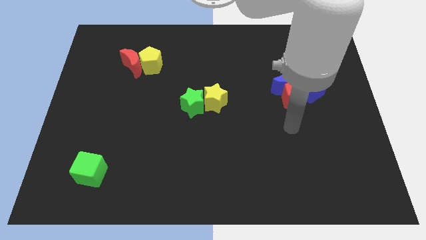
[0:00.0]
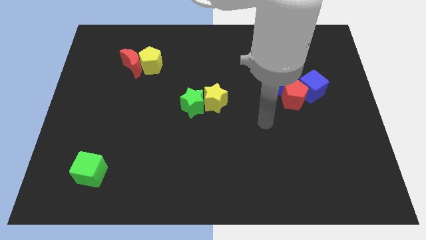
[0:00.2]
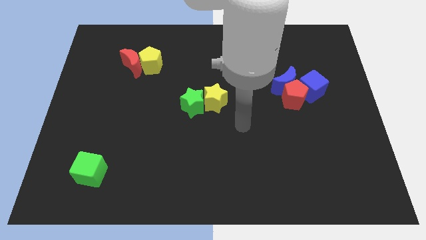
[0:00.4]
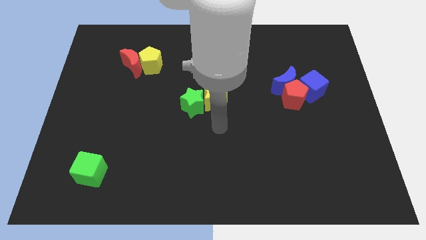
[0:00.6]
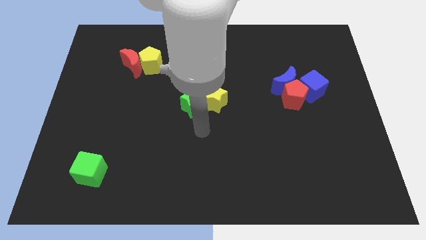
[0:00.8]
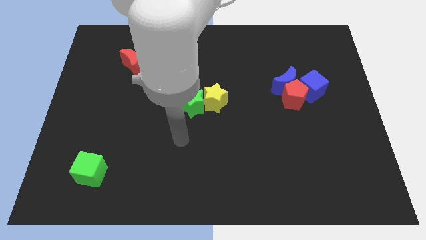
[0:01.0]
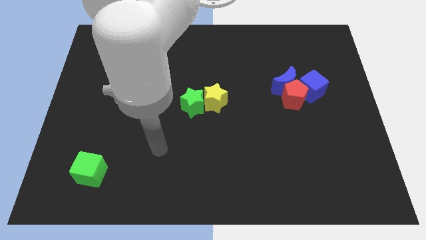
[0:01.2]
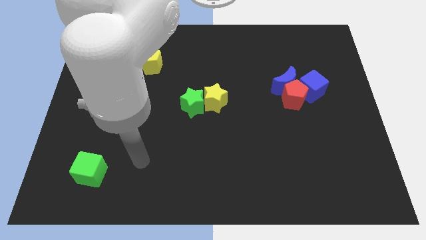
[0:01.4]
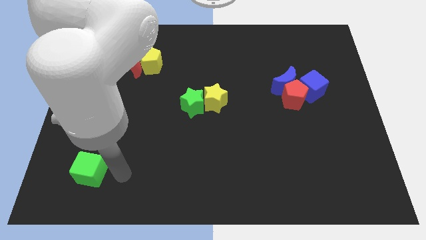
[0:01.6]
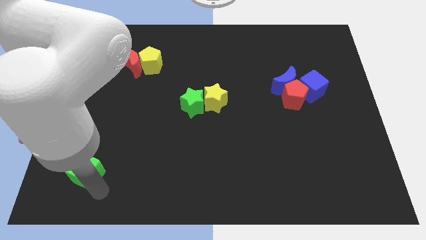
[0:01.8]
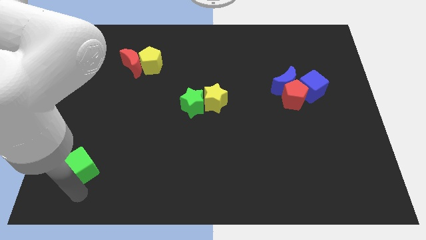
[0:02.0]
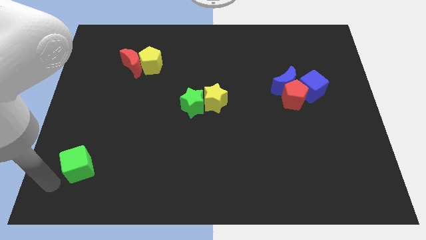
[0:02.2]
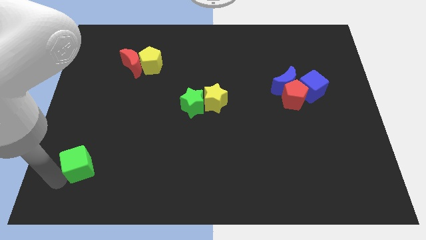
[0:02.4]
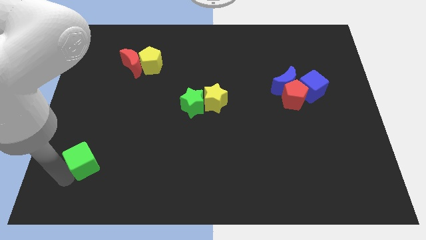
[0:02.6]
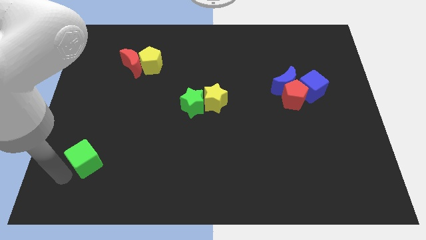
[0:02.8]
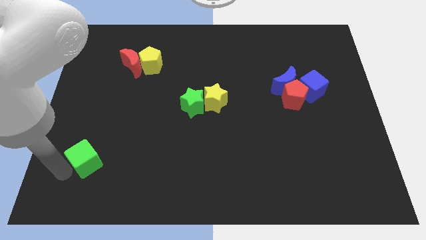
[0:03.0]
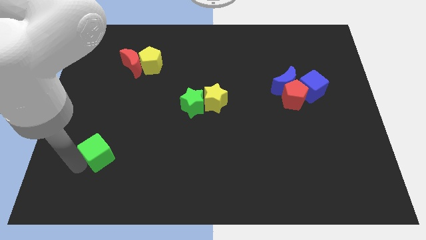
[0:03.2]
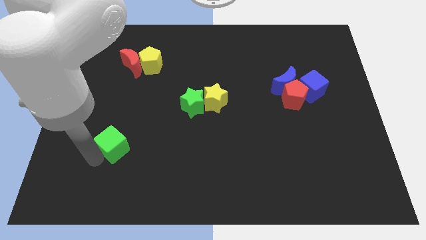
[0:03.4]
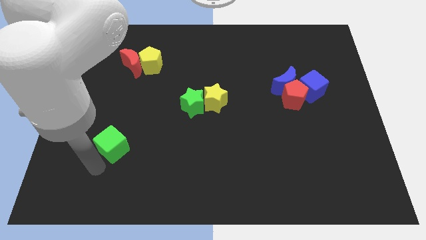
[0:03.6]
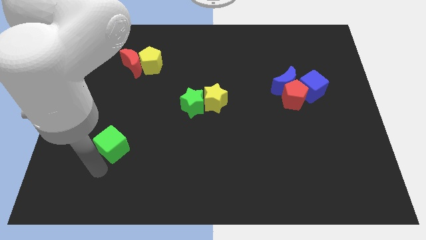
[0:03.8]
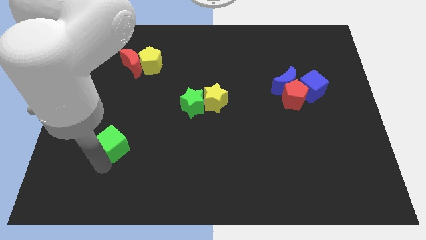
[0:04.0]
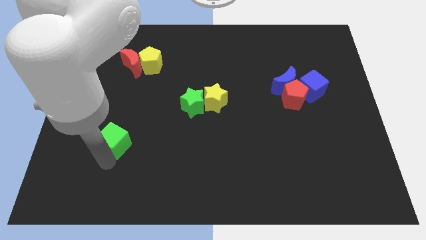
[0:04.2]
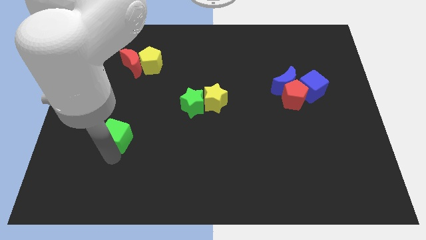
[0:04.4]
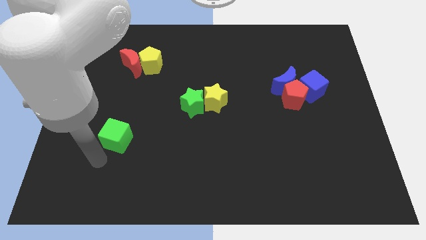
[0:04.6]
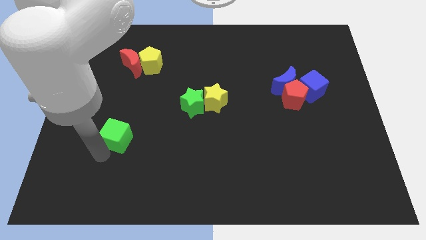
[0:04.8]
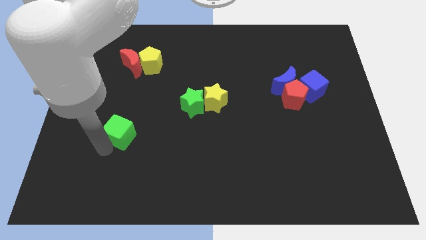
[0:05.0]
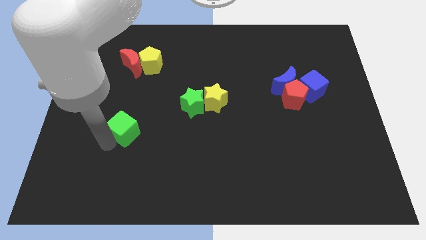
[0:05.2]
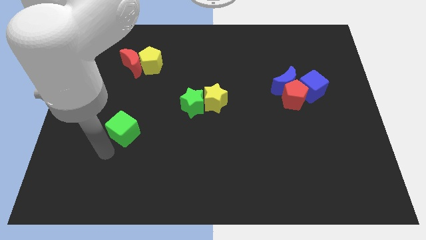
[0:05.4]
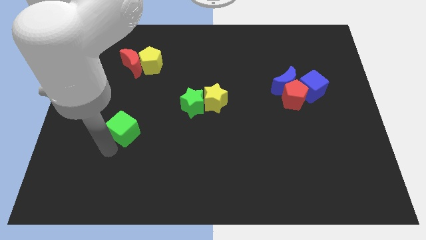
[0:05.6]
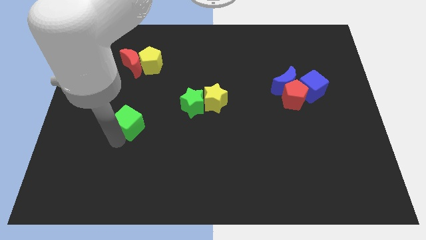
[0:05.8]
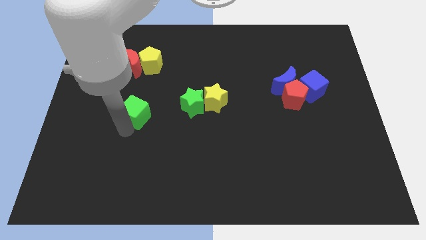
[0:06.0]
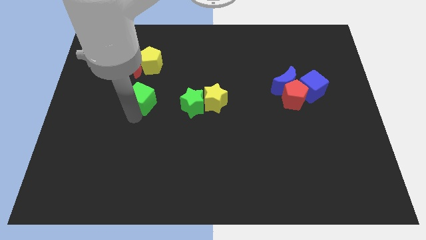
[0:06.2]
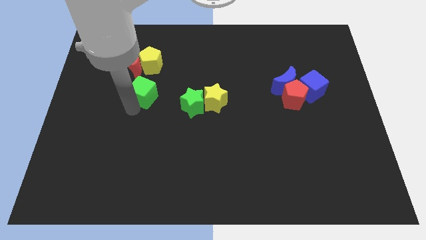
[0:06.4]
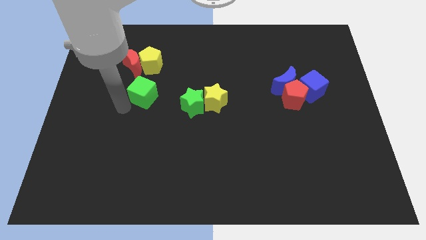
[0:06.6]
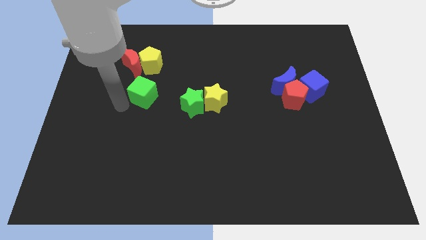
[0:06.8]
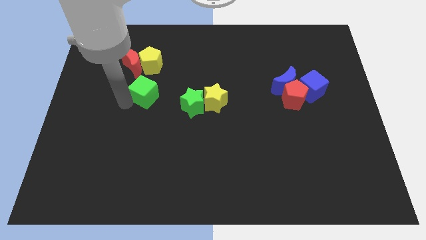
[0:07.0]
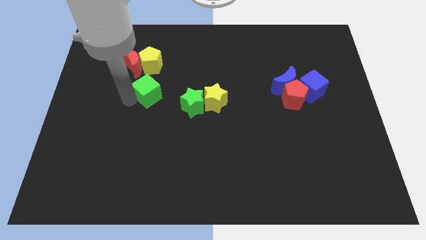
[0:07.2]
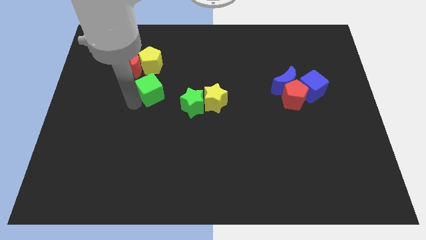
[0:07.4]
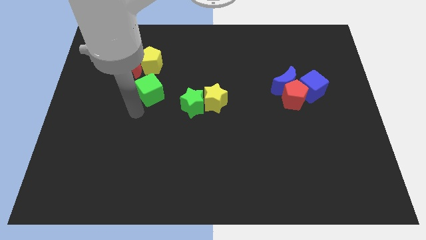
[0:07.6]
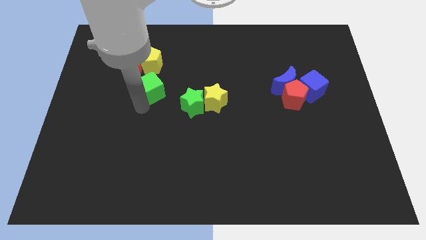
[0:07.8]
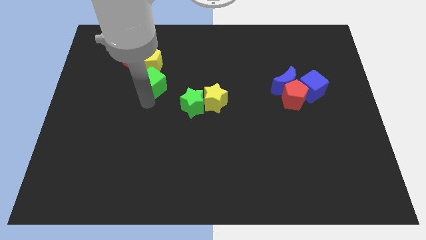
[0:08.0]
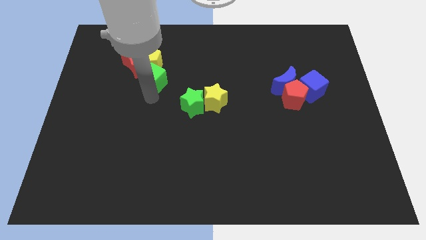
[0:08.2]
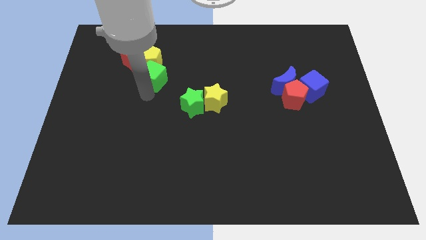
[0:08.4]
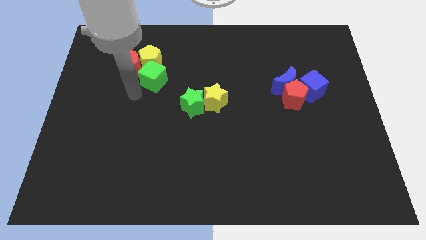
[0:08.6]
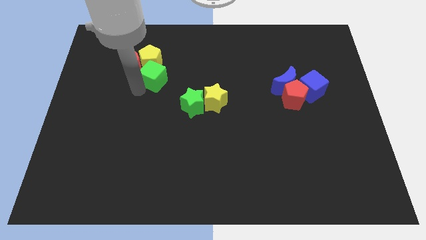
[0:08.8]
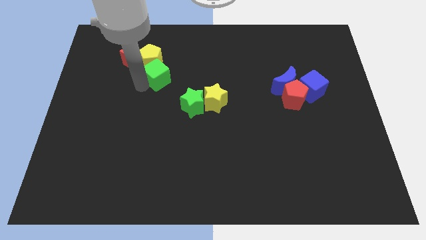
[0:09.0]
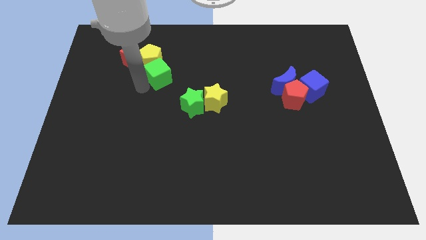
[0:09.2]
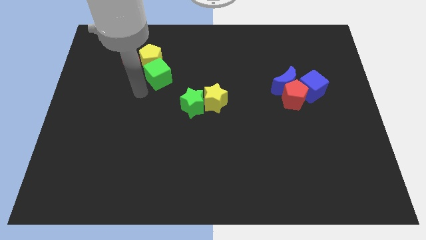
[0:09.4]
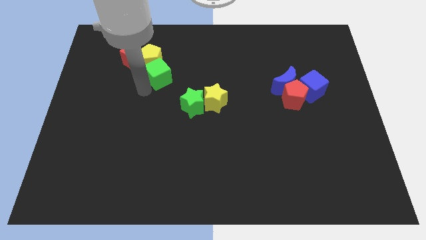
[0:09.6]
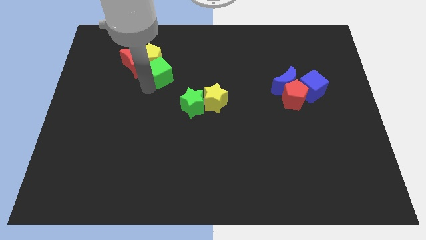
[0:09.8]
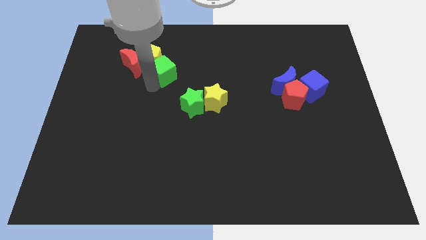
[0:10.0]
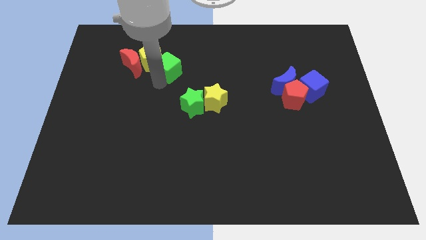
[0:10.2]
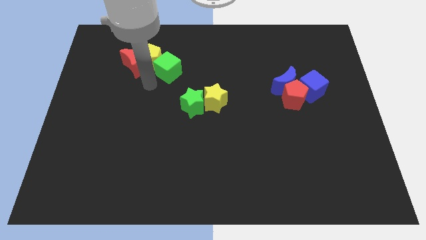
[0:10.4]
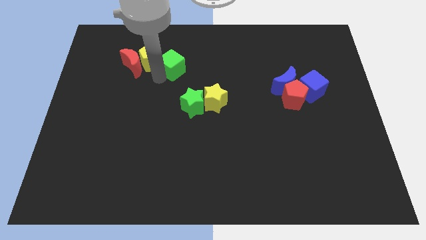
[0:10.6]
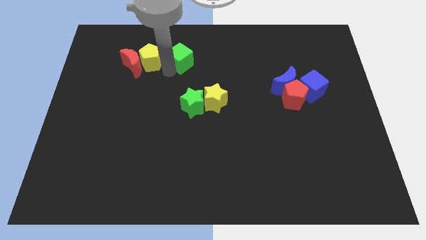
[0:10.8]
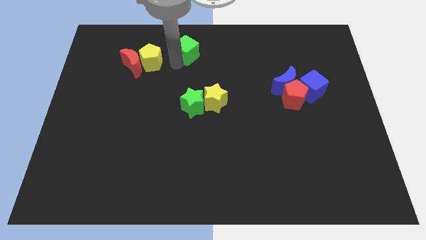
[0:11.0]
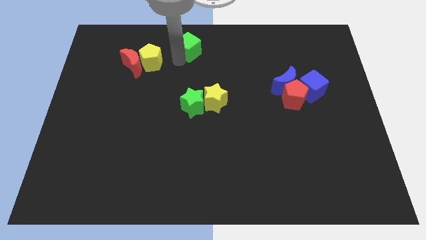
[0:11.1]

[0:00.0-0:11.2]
push the green cube to the top side
